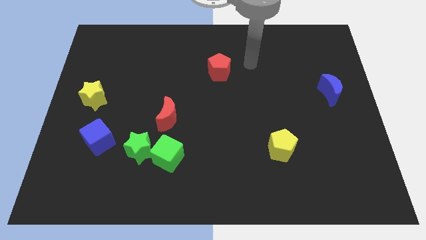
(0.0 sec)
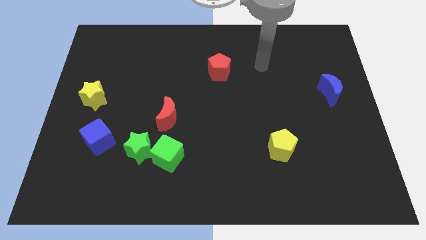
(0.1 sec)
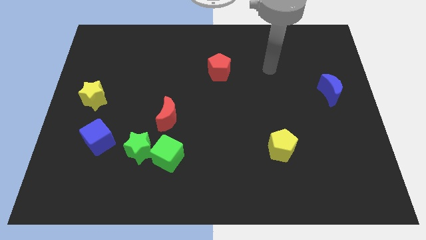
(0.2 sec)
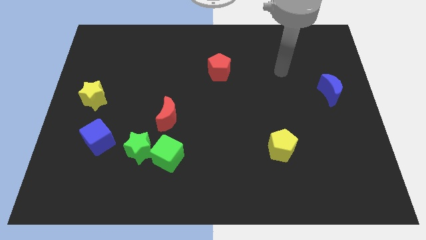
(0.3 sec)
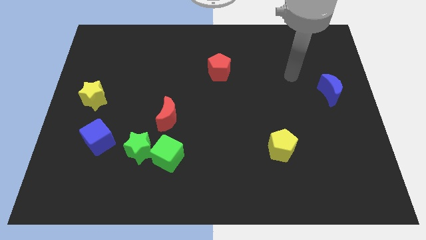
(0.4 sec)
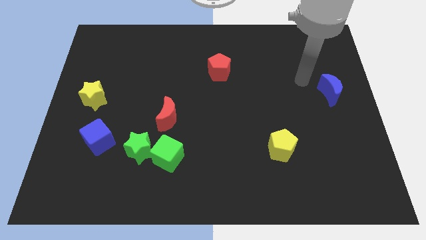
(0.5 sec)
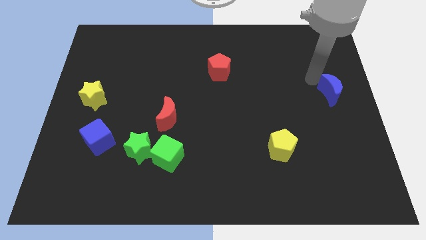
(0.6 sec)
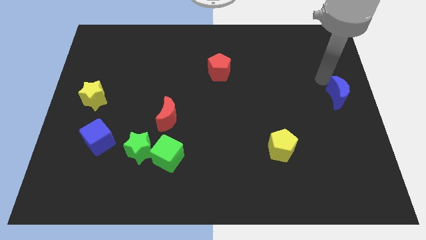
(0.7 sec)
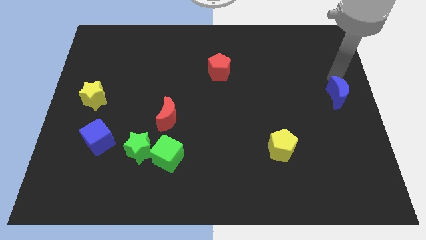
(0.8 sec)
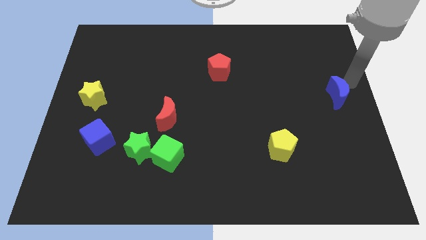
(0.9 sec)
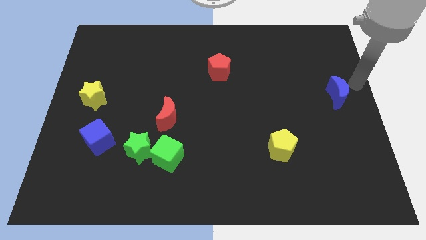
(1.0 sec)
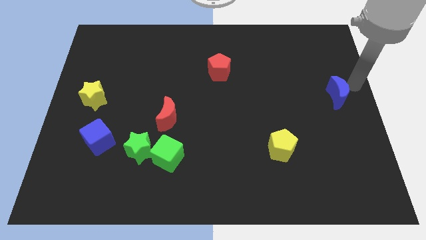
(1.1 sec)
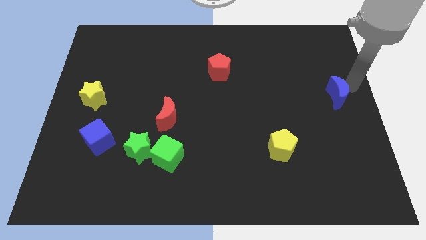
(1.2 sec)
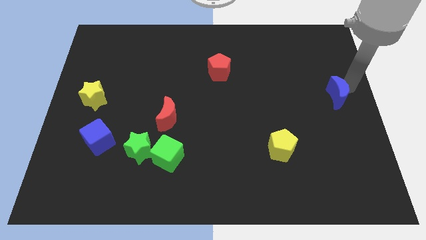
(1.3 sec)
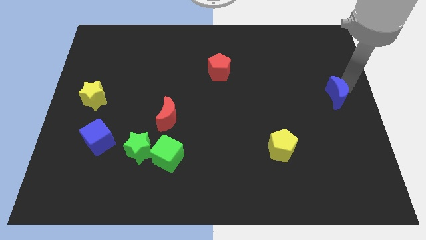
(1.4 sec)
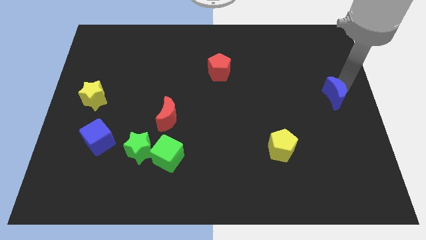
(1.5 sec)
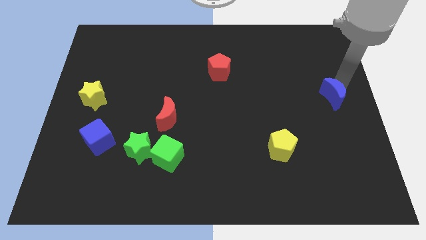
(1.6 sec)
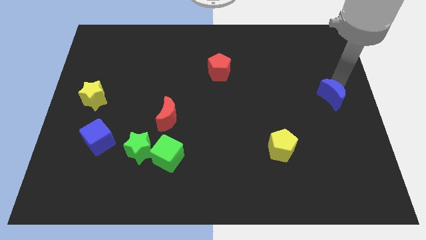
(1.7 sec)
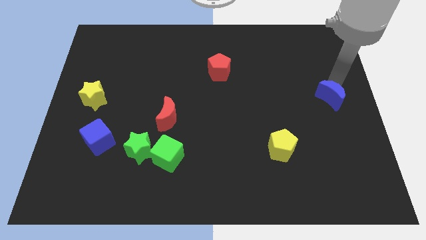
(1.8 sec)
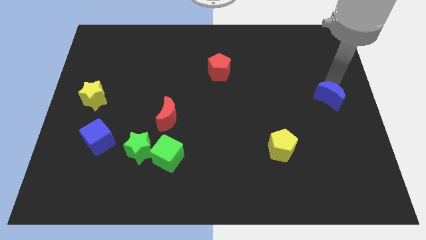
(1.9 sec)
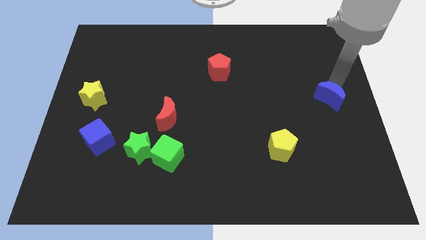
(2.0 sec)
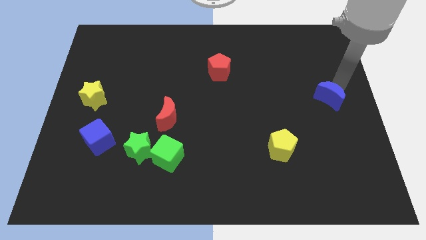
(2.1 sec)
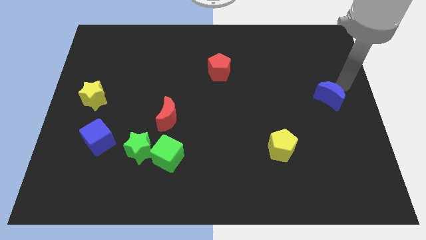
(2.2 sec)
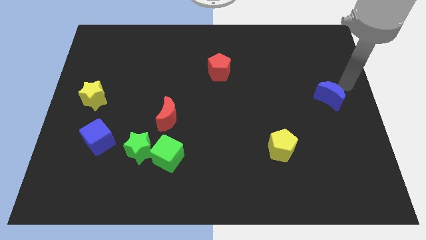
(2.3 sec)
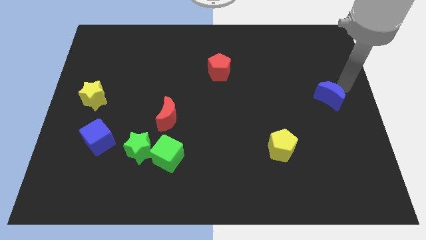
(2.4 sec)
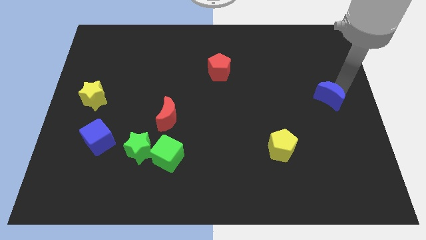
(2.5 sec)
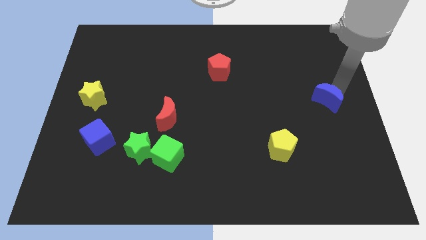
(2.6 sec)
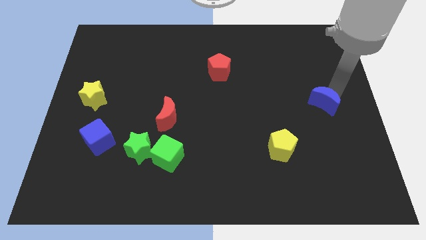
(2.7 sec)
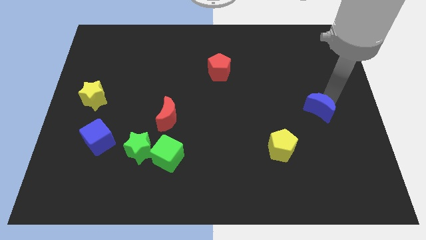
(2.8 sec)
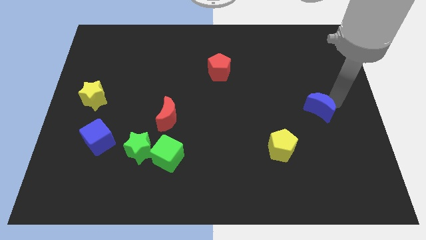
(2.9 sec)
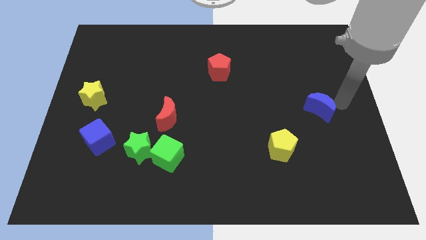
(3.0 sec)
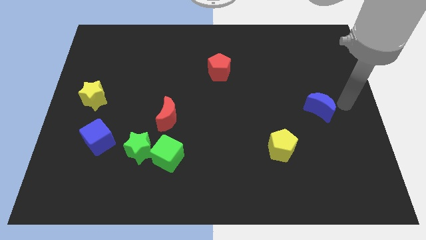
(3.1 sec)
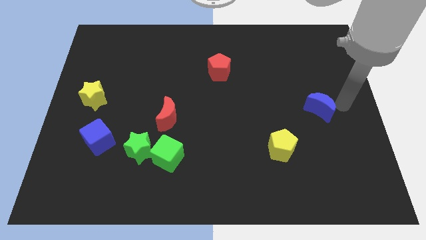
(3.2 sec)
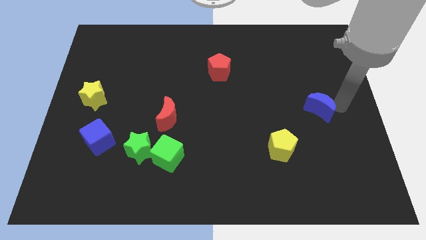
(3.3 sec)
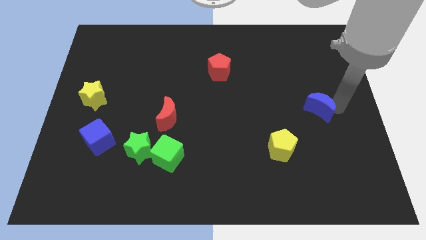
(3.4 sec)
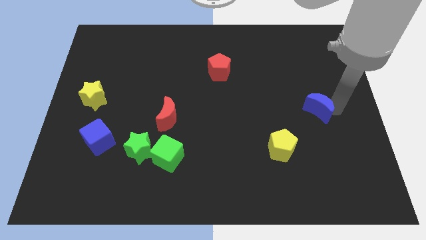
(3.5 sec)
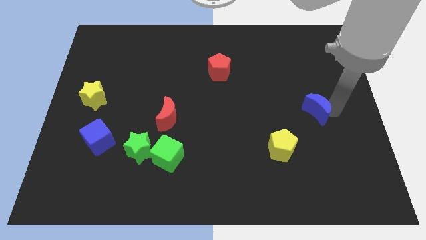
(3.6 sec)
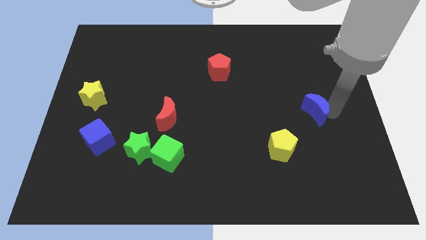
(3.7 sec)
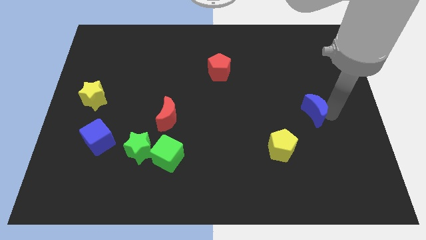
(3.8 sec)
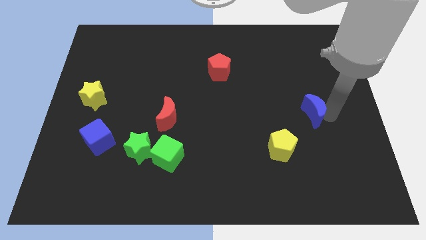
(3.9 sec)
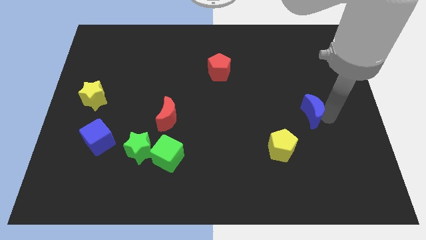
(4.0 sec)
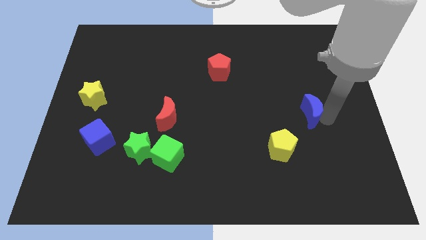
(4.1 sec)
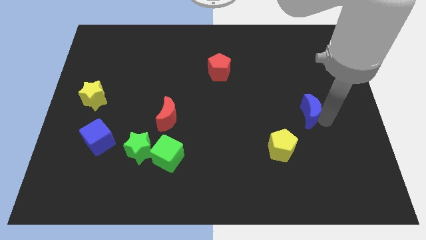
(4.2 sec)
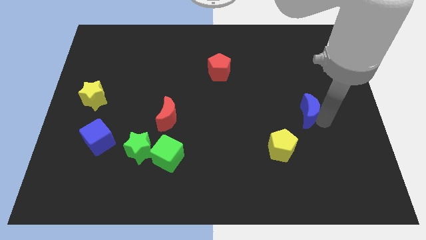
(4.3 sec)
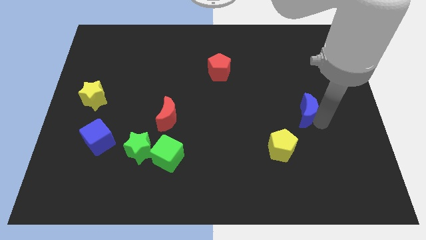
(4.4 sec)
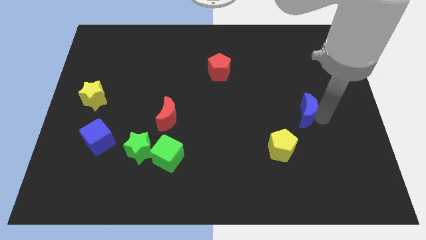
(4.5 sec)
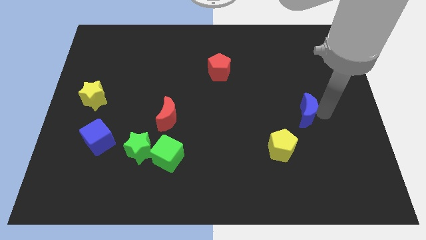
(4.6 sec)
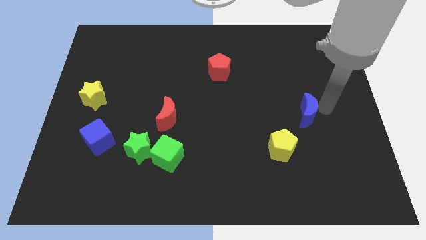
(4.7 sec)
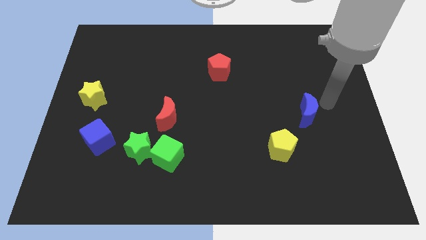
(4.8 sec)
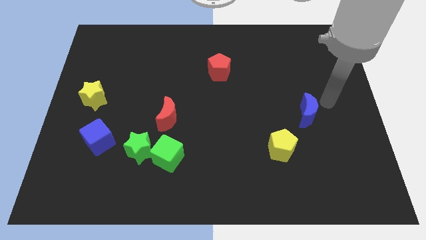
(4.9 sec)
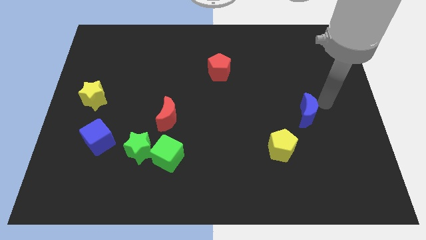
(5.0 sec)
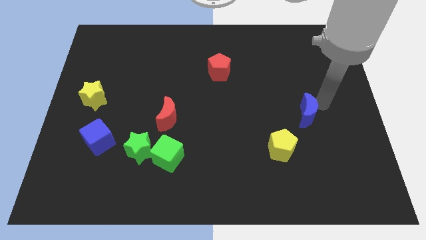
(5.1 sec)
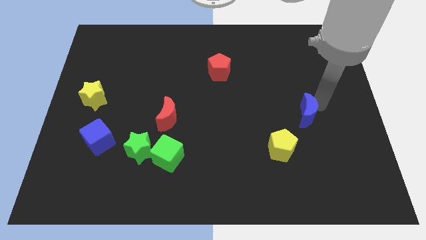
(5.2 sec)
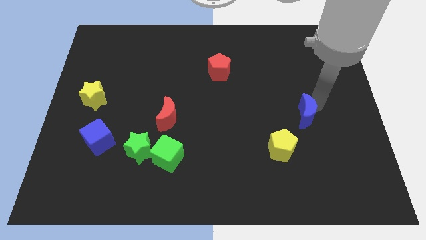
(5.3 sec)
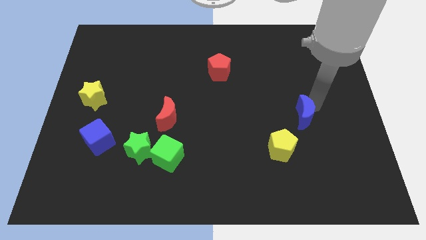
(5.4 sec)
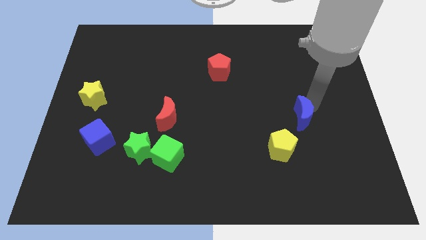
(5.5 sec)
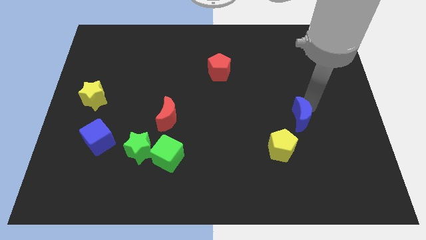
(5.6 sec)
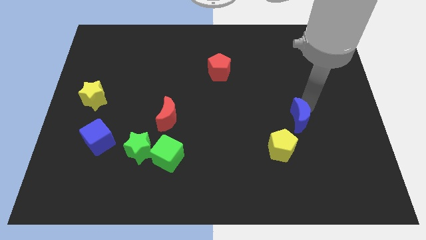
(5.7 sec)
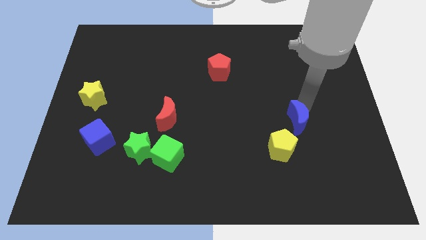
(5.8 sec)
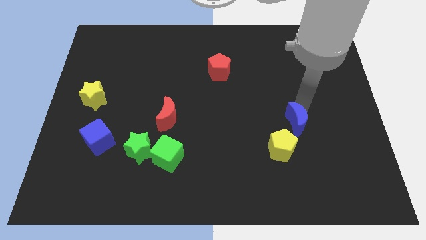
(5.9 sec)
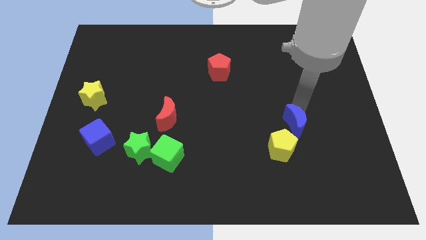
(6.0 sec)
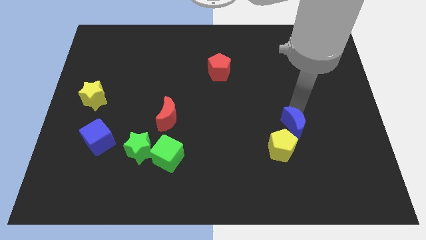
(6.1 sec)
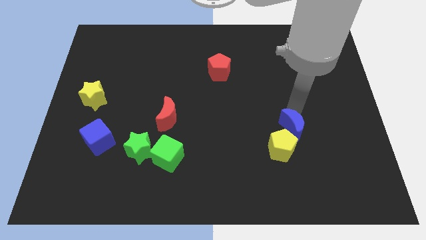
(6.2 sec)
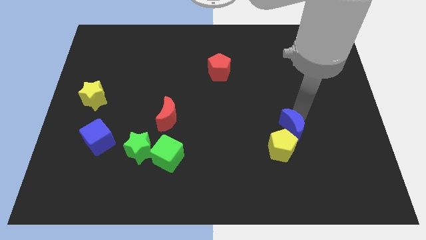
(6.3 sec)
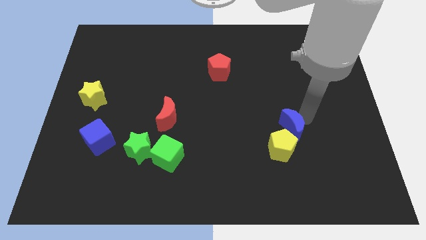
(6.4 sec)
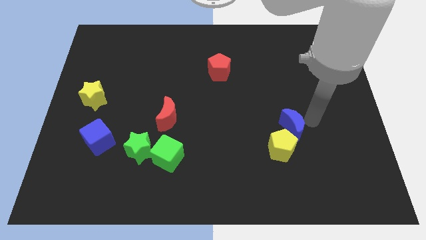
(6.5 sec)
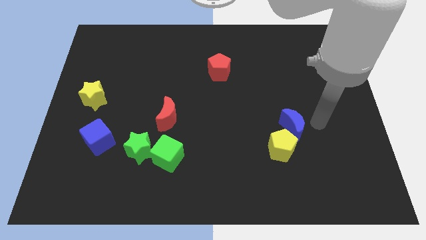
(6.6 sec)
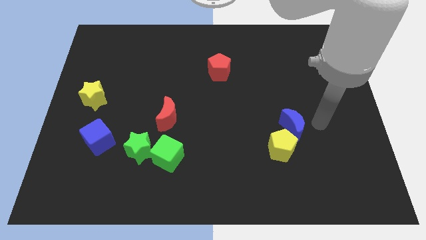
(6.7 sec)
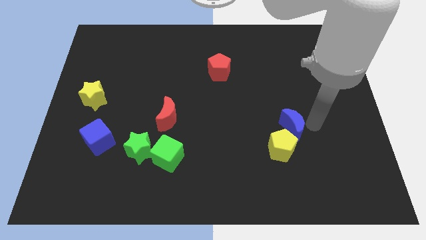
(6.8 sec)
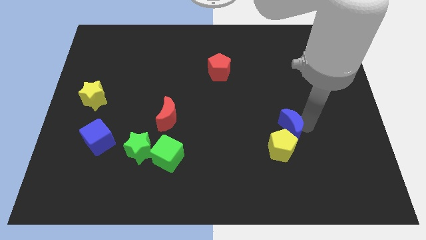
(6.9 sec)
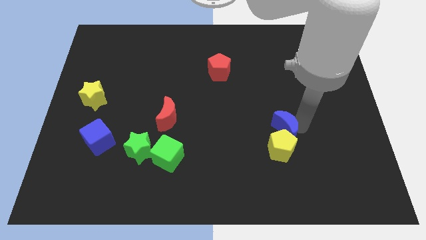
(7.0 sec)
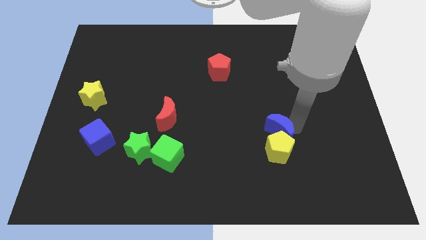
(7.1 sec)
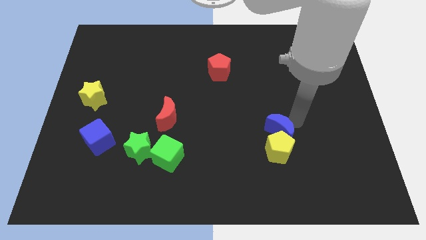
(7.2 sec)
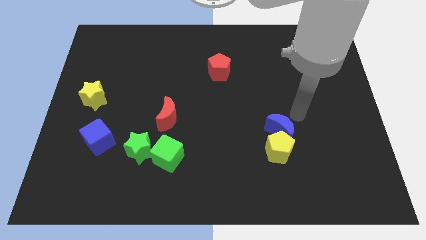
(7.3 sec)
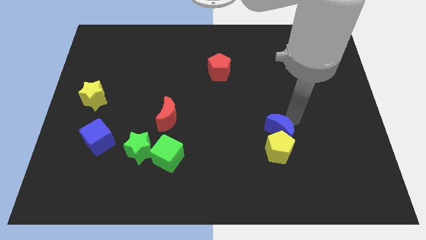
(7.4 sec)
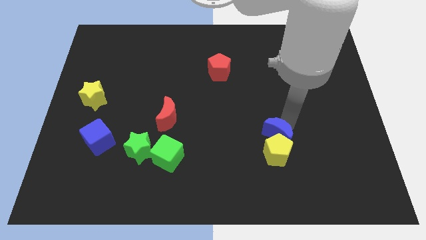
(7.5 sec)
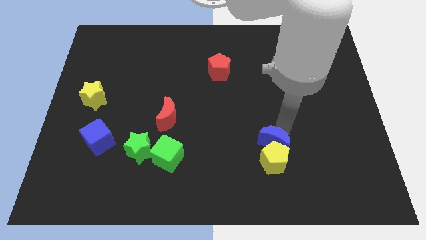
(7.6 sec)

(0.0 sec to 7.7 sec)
slide the blue moon downwards and left diagonally

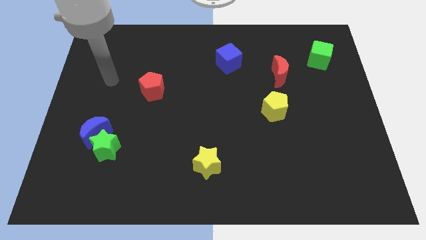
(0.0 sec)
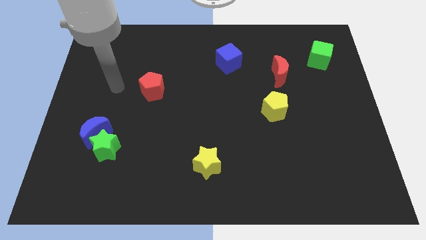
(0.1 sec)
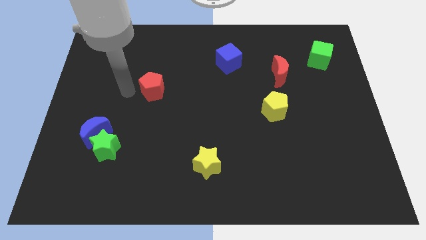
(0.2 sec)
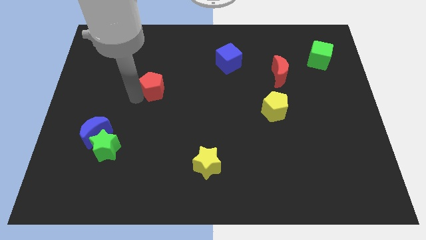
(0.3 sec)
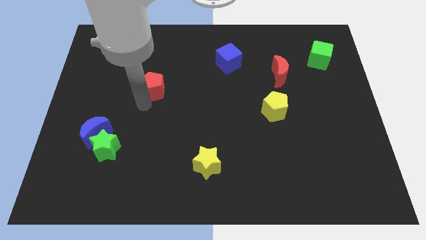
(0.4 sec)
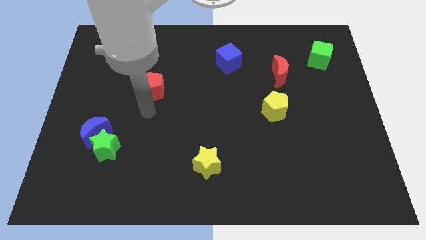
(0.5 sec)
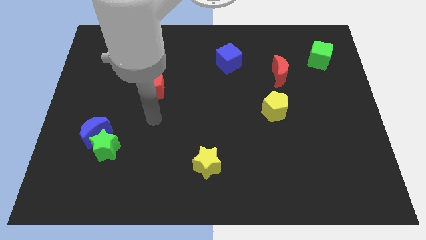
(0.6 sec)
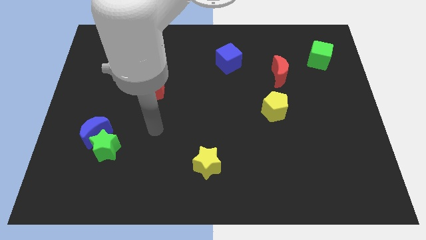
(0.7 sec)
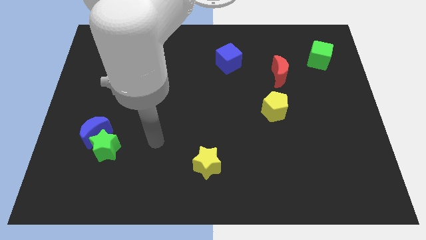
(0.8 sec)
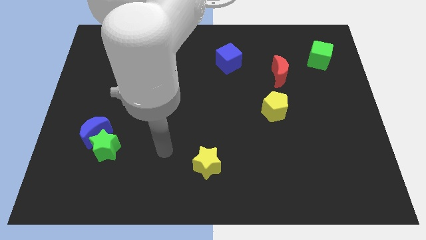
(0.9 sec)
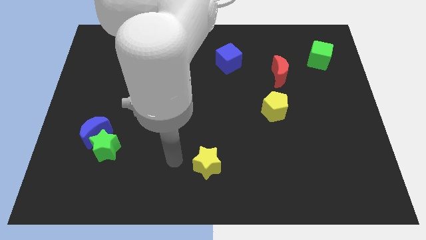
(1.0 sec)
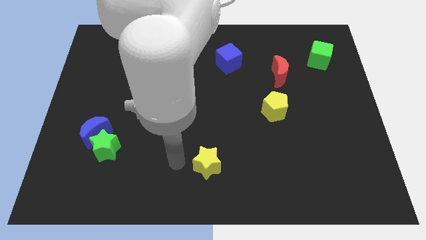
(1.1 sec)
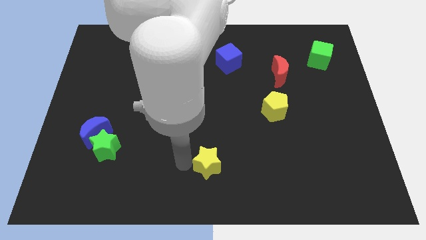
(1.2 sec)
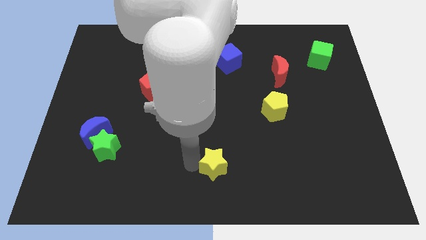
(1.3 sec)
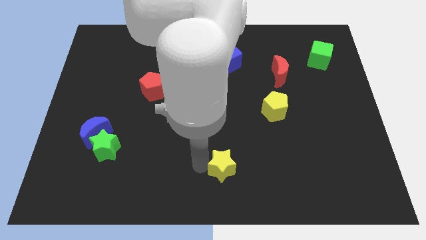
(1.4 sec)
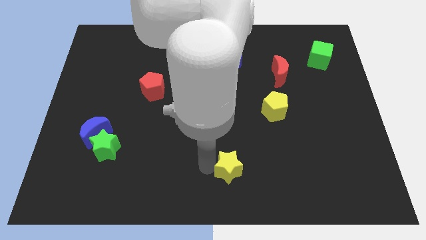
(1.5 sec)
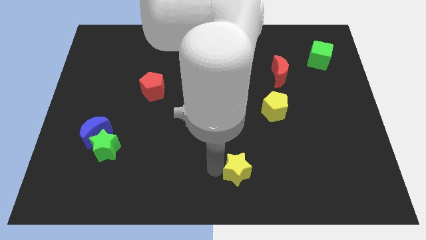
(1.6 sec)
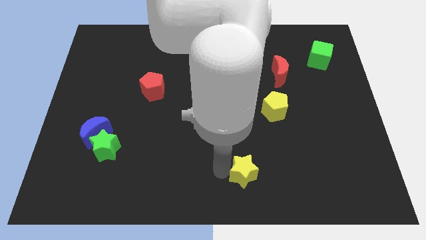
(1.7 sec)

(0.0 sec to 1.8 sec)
slightly push the yellow star right
